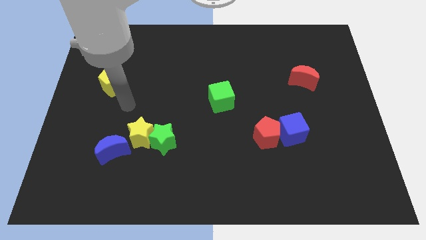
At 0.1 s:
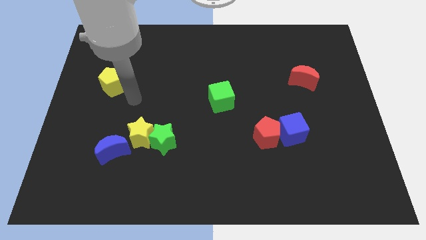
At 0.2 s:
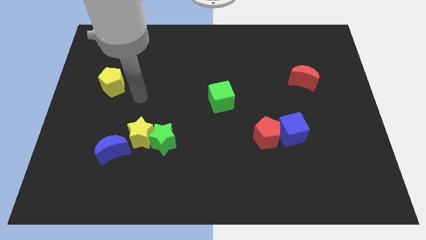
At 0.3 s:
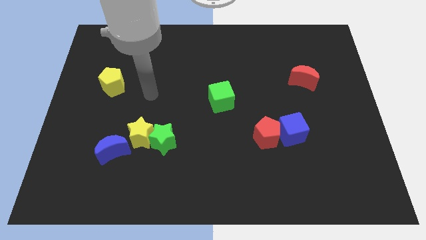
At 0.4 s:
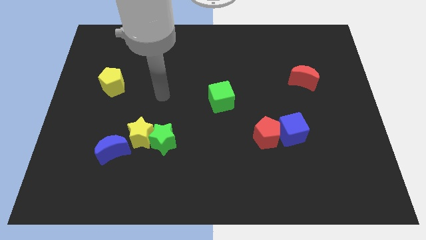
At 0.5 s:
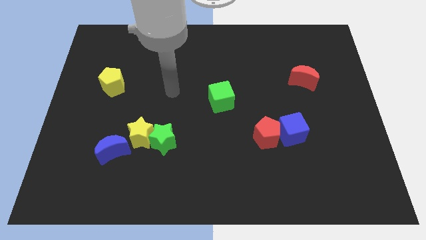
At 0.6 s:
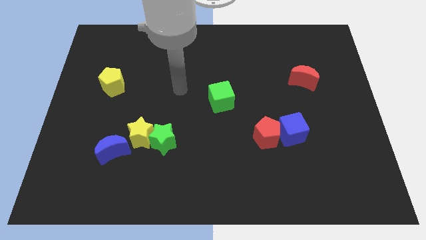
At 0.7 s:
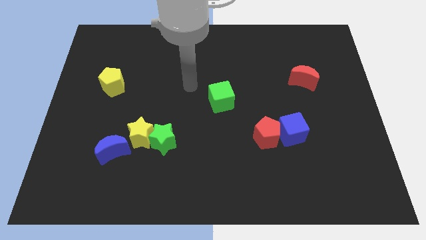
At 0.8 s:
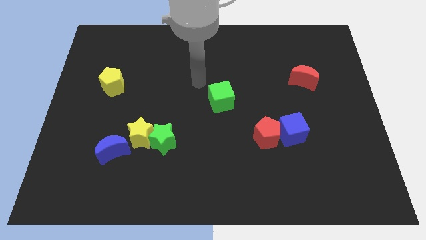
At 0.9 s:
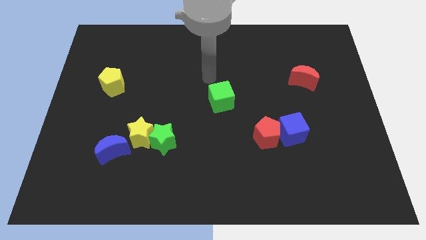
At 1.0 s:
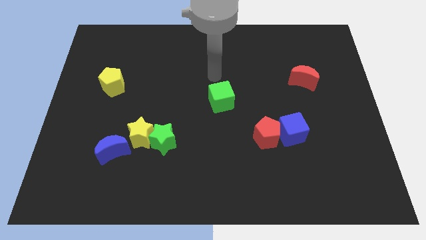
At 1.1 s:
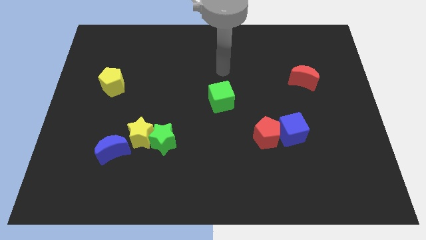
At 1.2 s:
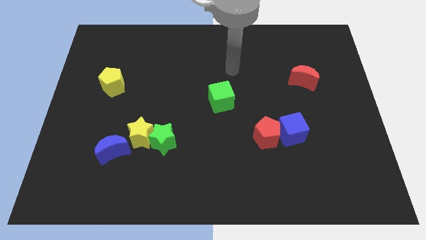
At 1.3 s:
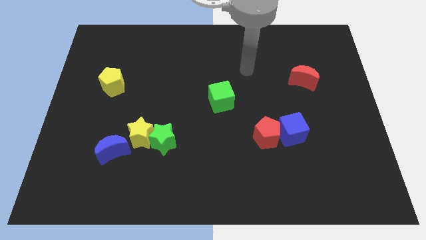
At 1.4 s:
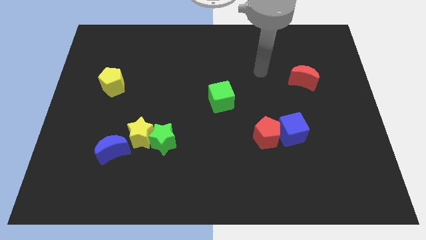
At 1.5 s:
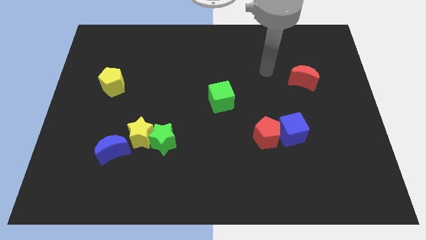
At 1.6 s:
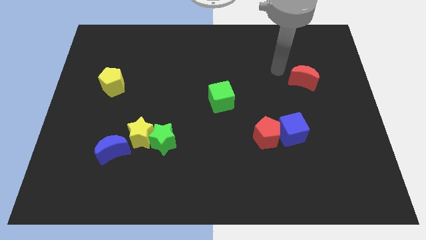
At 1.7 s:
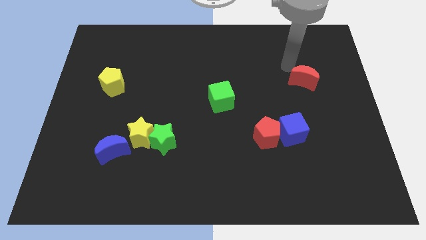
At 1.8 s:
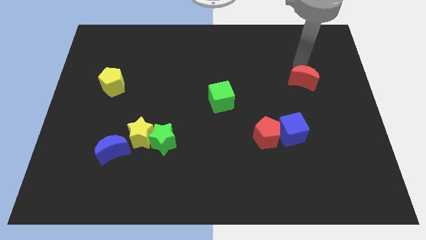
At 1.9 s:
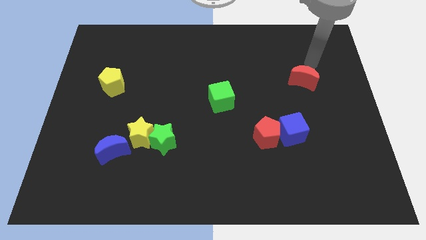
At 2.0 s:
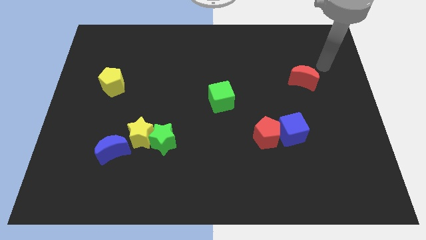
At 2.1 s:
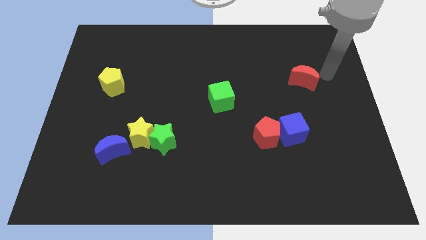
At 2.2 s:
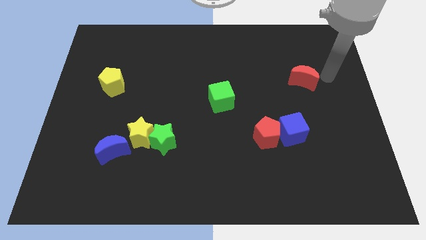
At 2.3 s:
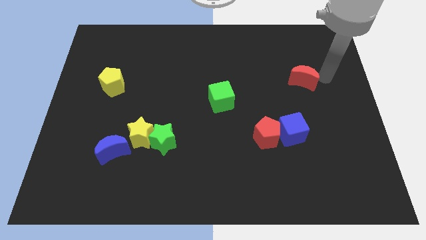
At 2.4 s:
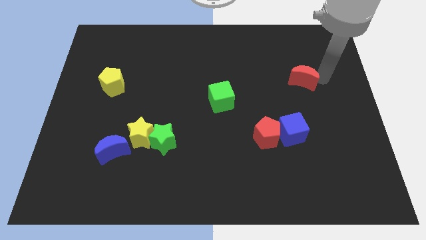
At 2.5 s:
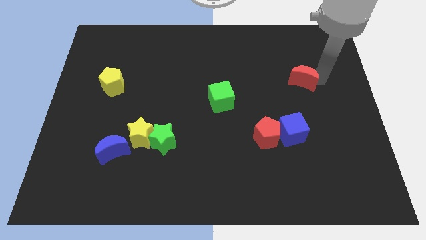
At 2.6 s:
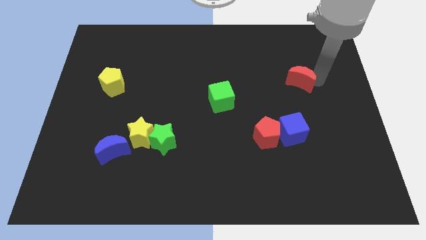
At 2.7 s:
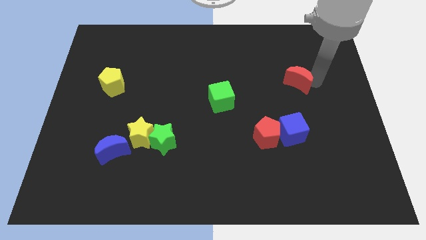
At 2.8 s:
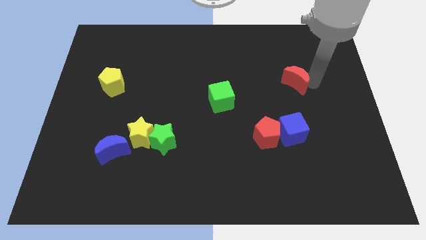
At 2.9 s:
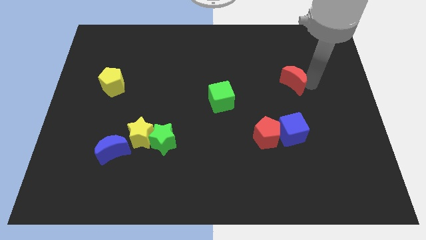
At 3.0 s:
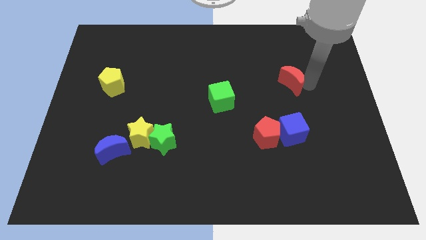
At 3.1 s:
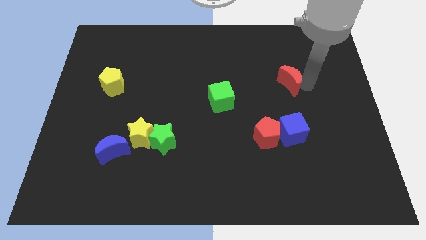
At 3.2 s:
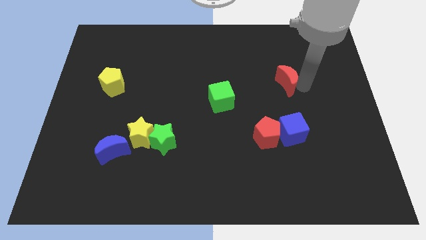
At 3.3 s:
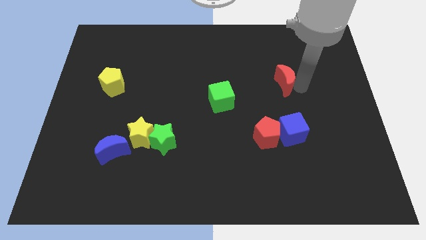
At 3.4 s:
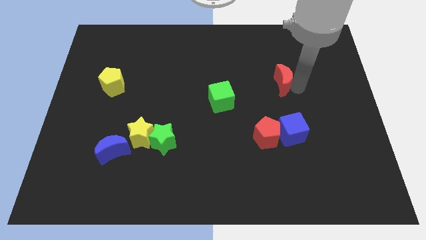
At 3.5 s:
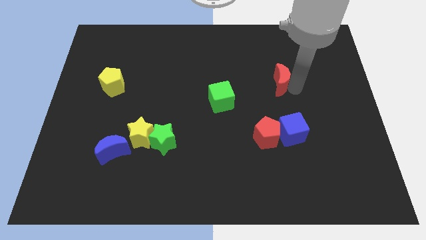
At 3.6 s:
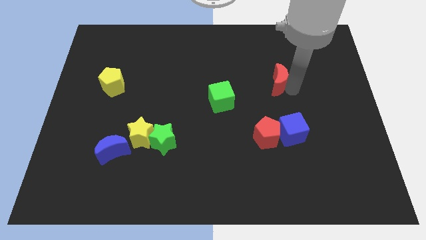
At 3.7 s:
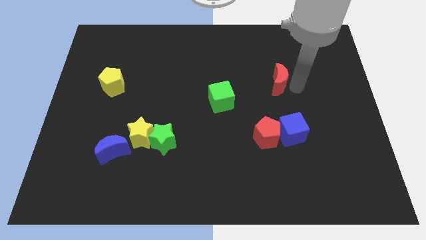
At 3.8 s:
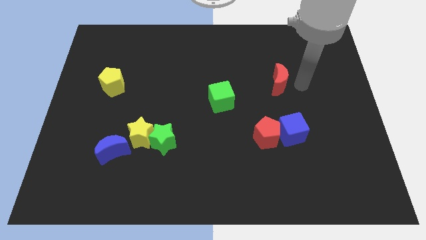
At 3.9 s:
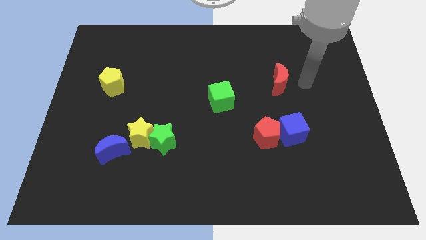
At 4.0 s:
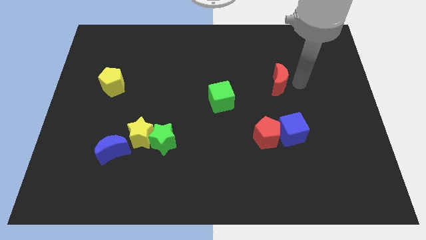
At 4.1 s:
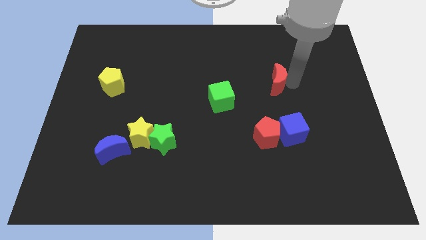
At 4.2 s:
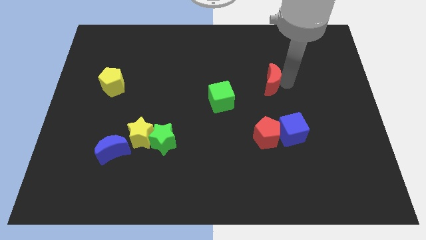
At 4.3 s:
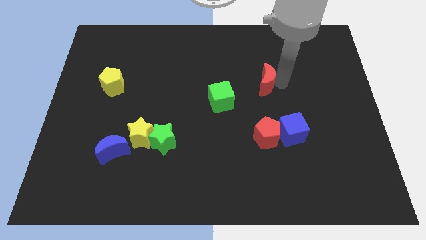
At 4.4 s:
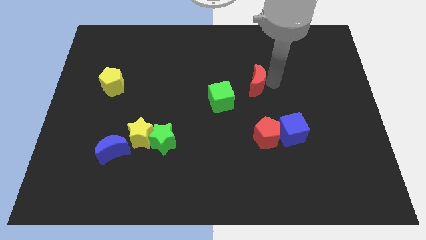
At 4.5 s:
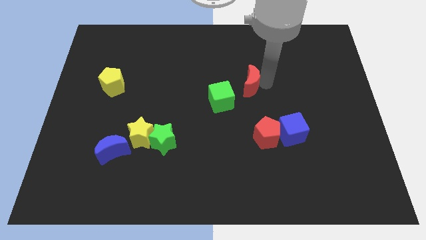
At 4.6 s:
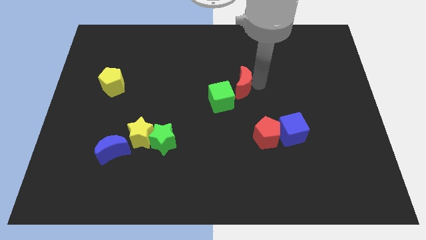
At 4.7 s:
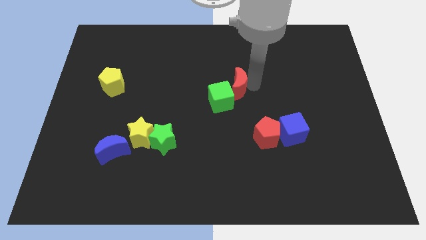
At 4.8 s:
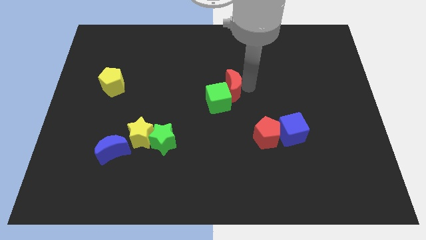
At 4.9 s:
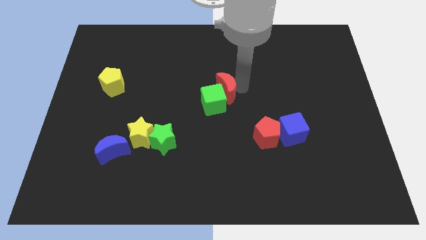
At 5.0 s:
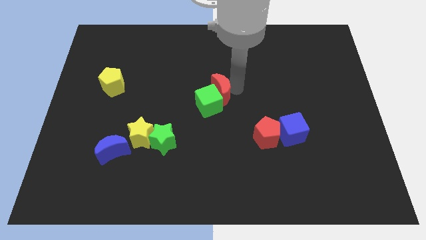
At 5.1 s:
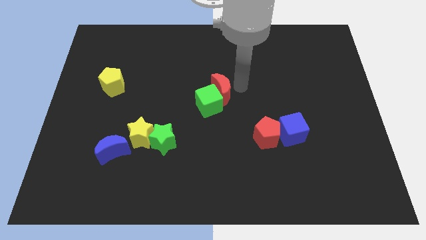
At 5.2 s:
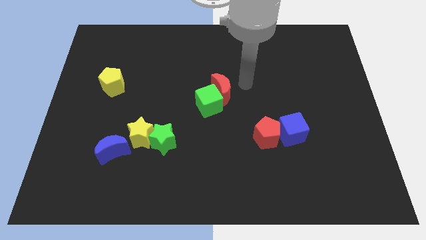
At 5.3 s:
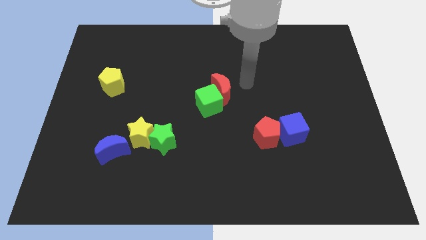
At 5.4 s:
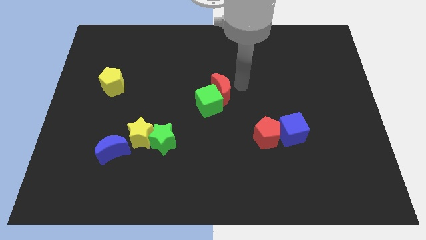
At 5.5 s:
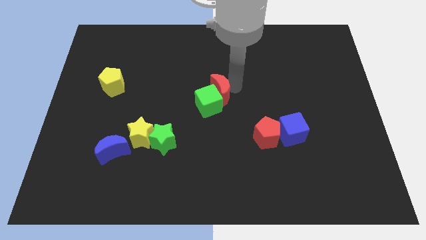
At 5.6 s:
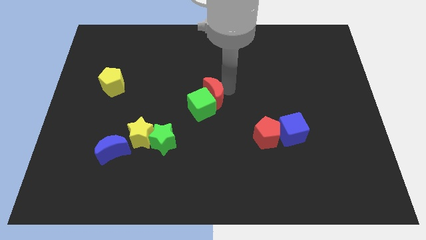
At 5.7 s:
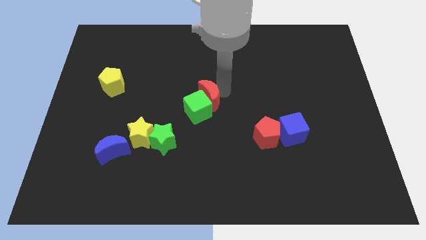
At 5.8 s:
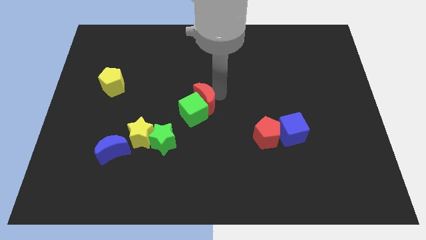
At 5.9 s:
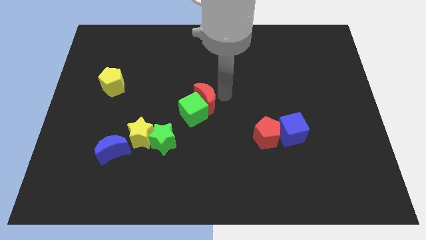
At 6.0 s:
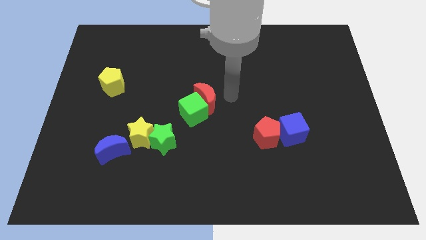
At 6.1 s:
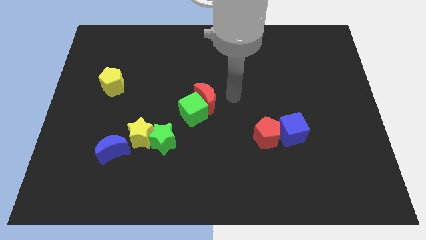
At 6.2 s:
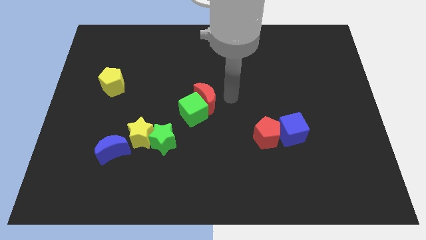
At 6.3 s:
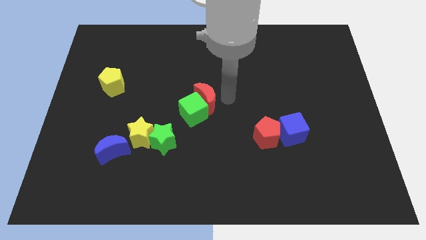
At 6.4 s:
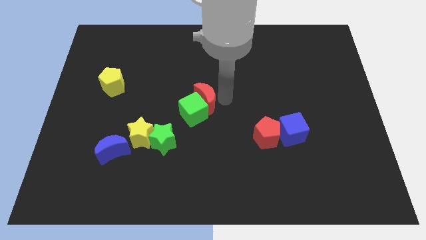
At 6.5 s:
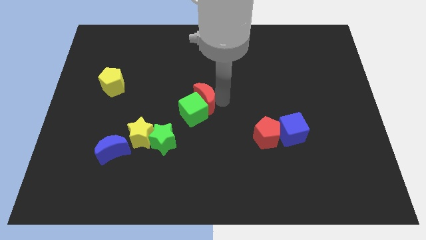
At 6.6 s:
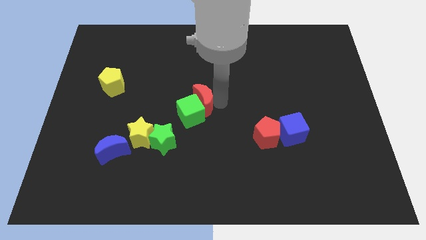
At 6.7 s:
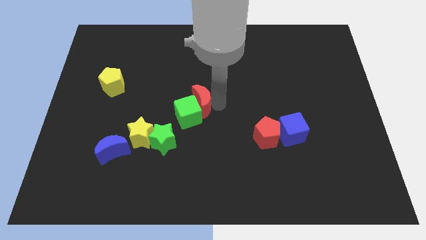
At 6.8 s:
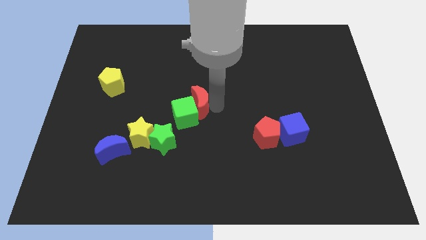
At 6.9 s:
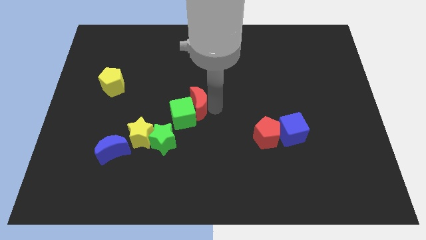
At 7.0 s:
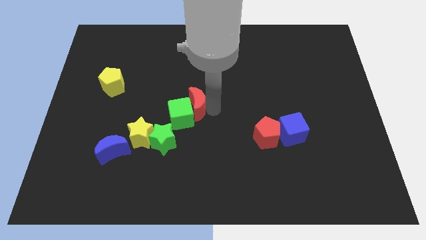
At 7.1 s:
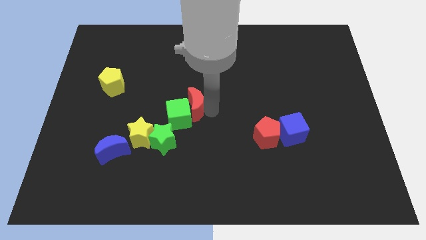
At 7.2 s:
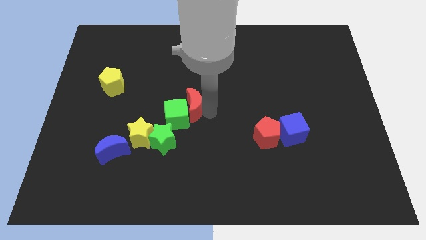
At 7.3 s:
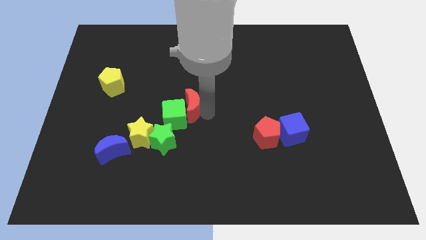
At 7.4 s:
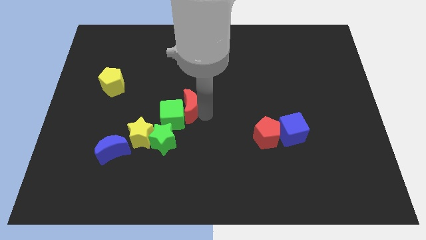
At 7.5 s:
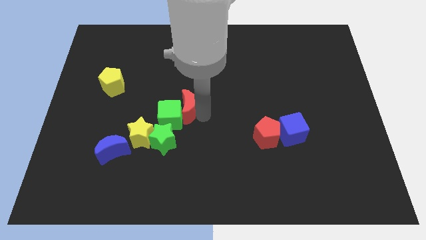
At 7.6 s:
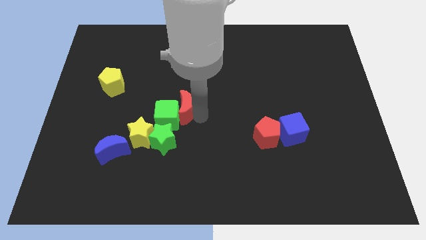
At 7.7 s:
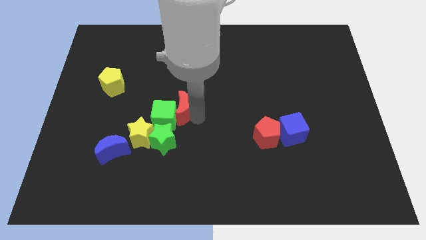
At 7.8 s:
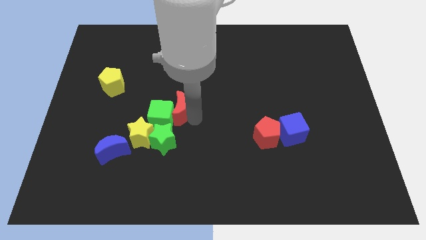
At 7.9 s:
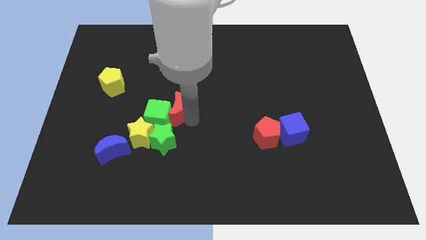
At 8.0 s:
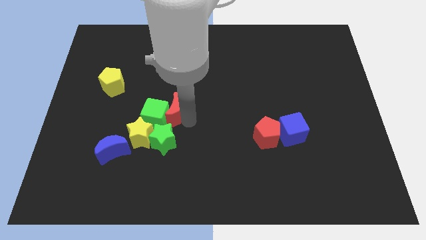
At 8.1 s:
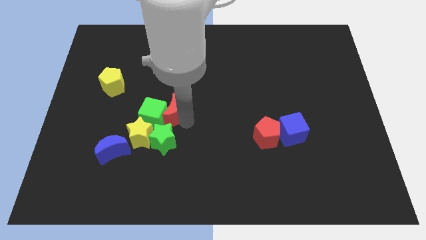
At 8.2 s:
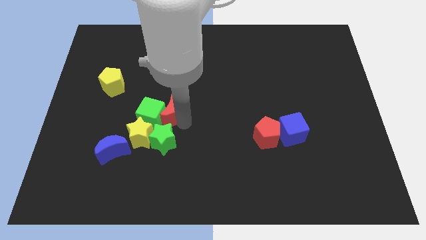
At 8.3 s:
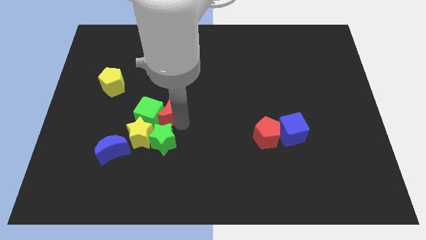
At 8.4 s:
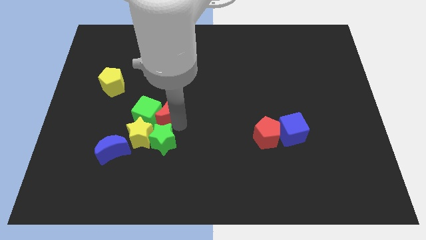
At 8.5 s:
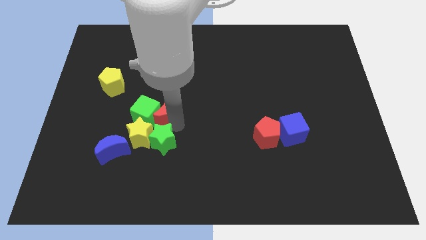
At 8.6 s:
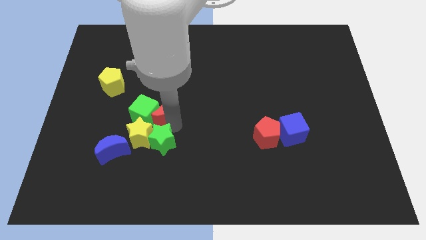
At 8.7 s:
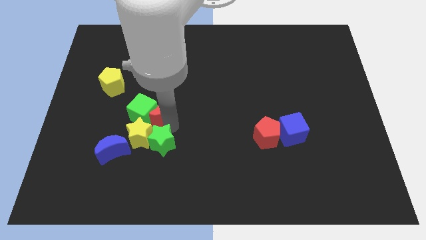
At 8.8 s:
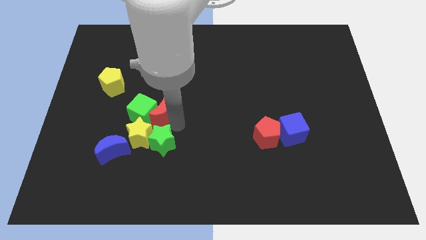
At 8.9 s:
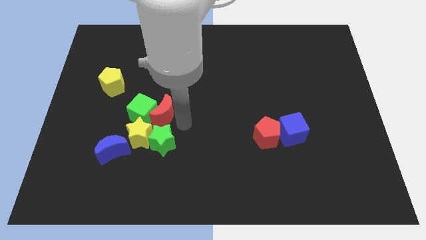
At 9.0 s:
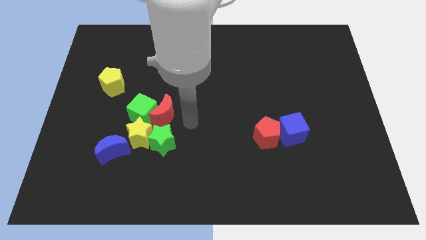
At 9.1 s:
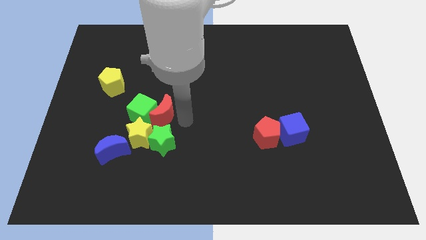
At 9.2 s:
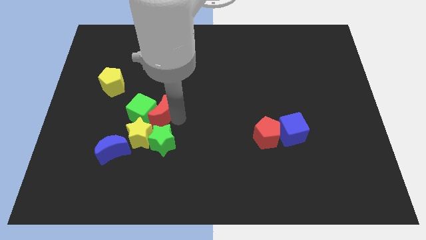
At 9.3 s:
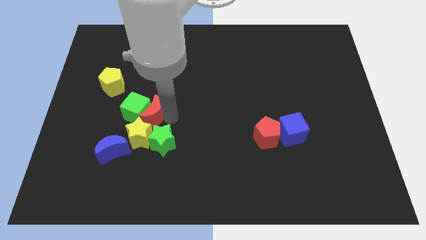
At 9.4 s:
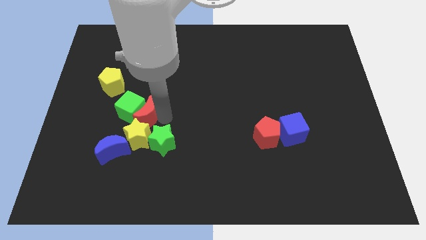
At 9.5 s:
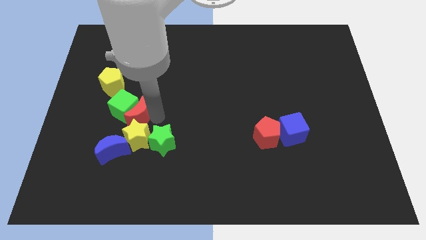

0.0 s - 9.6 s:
slide the red moon above the blue moon
